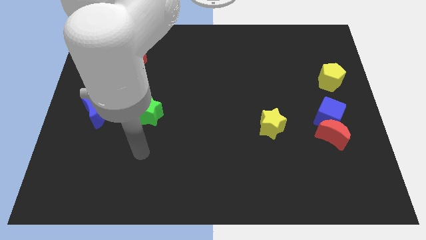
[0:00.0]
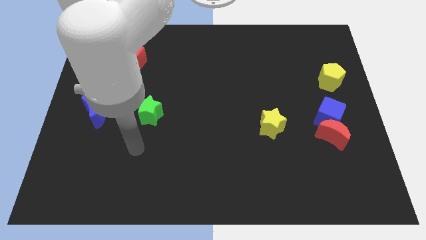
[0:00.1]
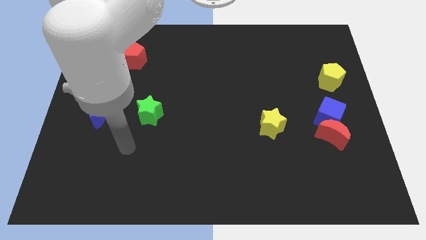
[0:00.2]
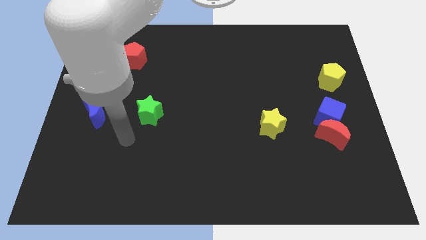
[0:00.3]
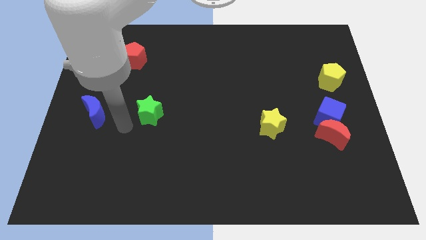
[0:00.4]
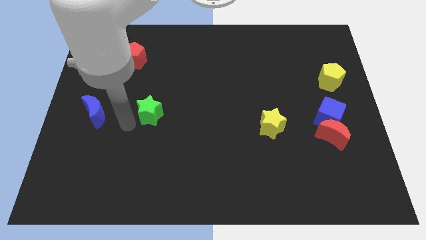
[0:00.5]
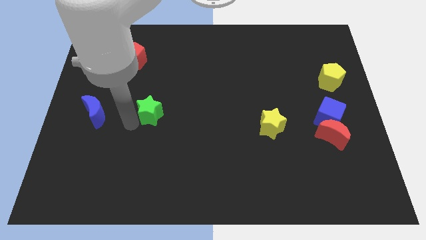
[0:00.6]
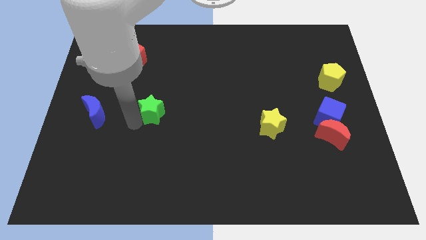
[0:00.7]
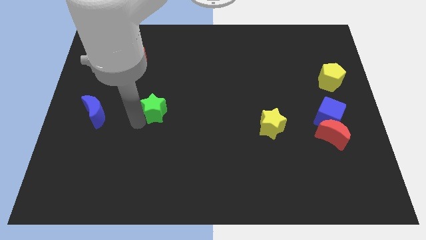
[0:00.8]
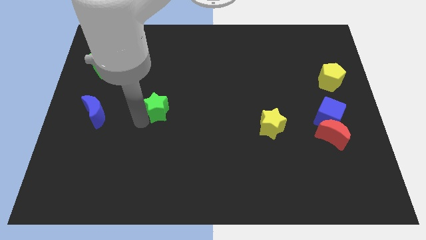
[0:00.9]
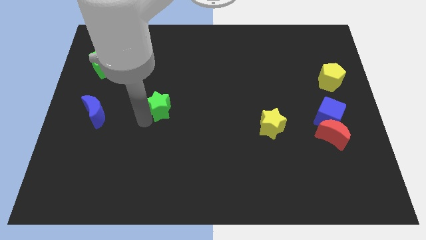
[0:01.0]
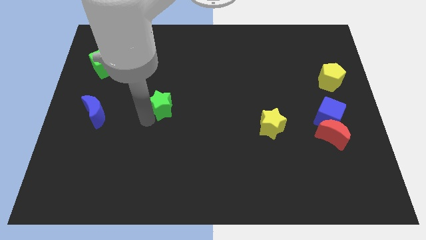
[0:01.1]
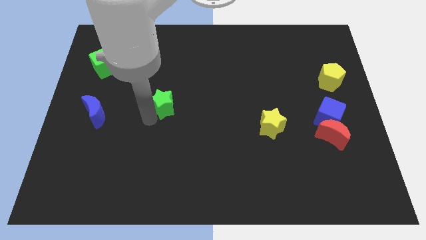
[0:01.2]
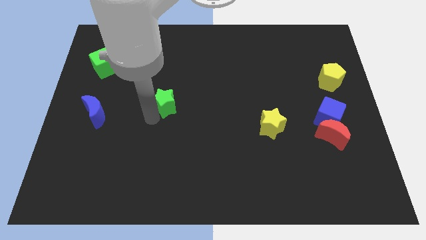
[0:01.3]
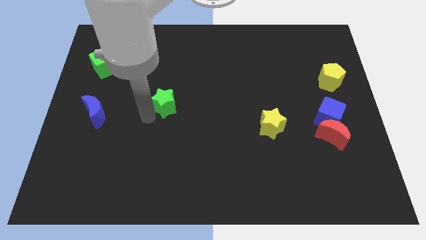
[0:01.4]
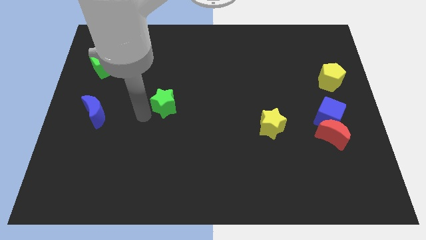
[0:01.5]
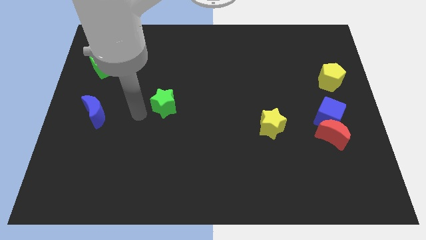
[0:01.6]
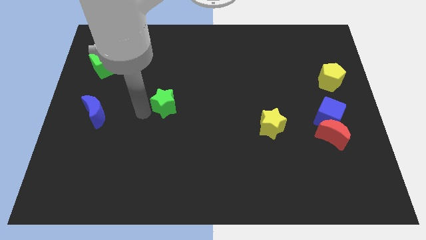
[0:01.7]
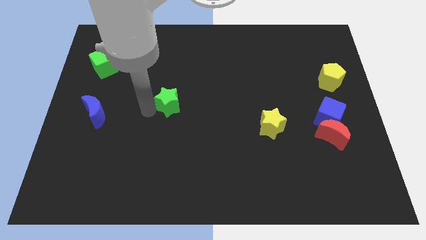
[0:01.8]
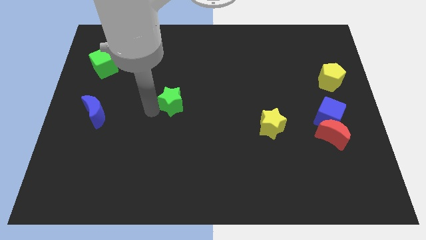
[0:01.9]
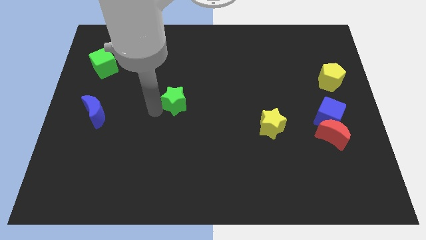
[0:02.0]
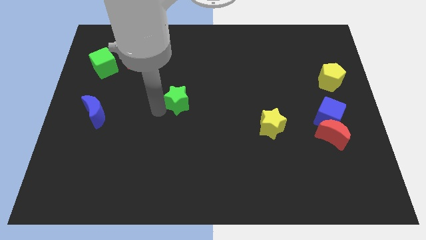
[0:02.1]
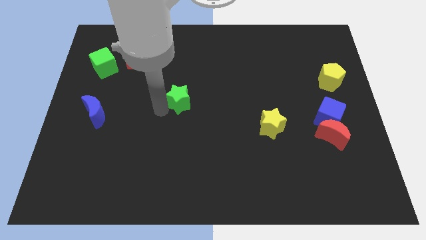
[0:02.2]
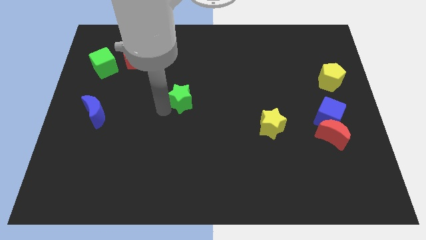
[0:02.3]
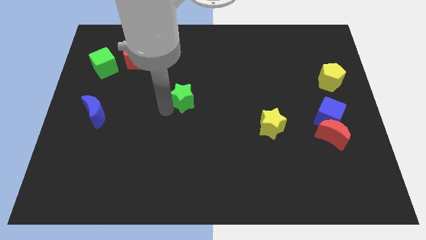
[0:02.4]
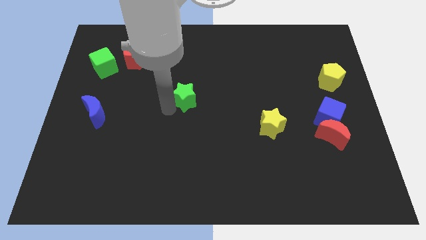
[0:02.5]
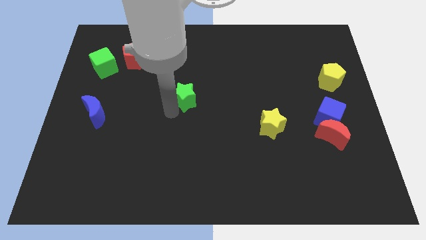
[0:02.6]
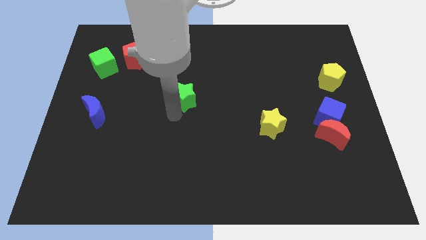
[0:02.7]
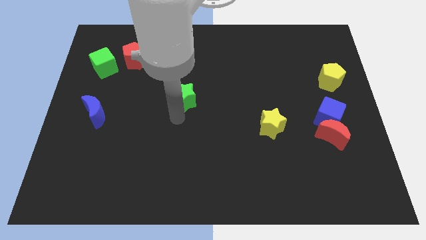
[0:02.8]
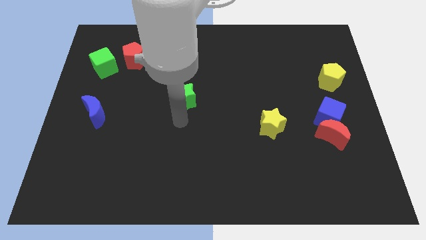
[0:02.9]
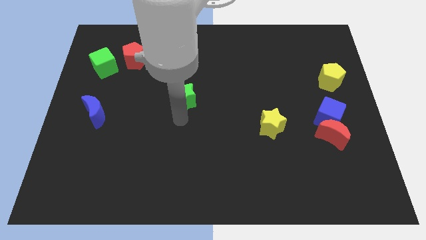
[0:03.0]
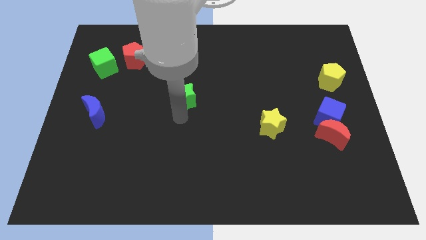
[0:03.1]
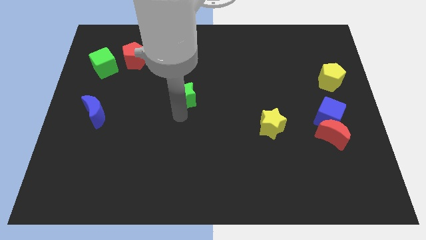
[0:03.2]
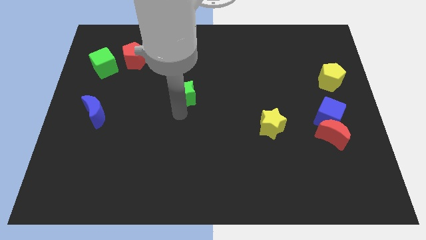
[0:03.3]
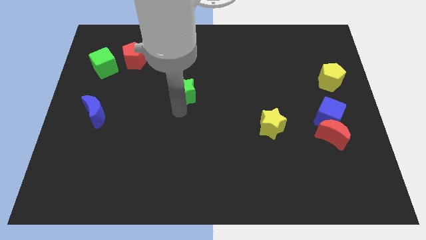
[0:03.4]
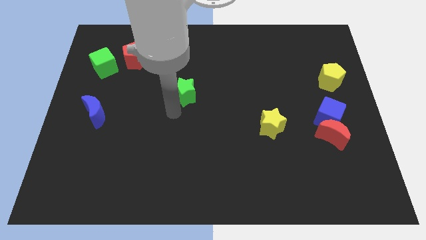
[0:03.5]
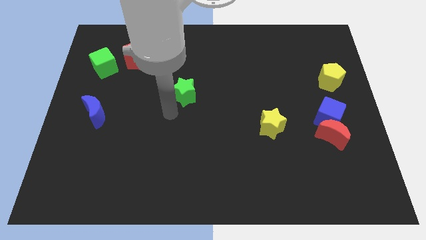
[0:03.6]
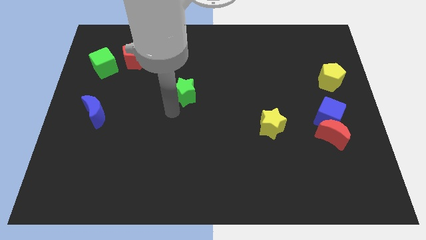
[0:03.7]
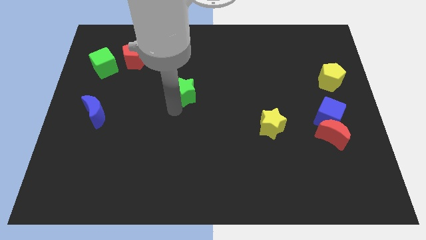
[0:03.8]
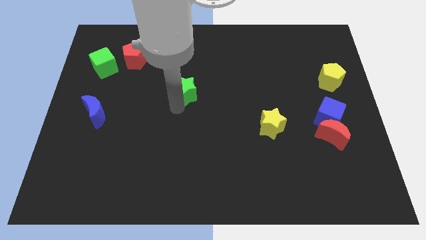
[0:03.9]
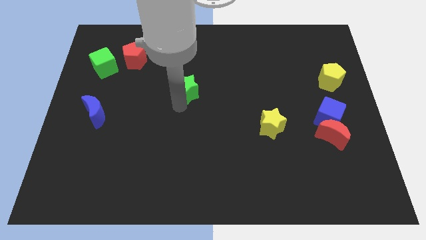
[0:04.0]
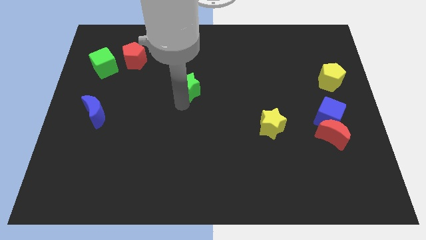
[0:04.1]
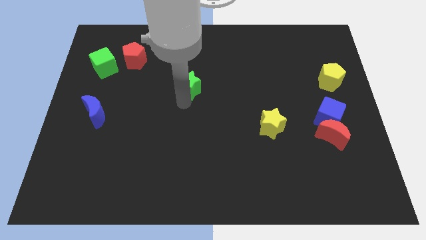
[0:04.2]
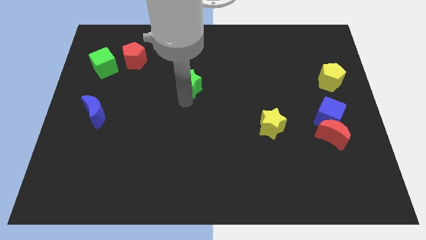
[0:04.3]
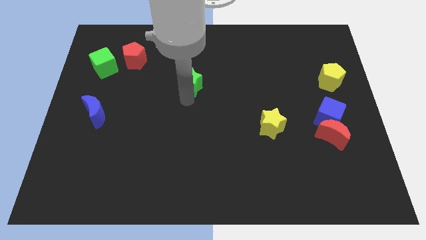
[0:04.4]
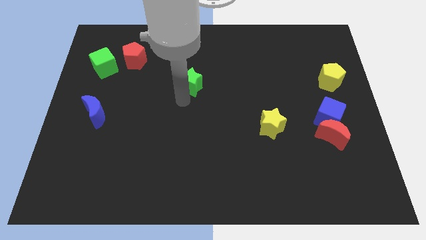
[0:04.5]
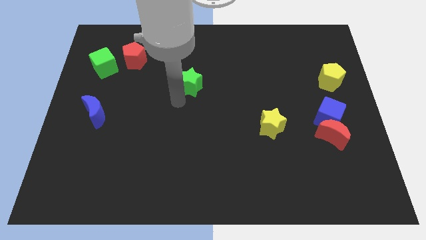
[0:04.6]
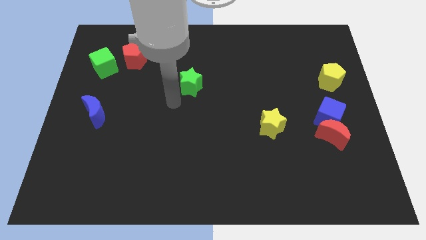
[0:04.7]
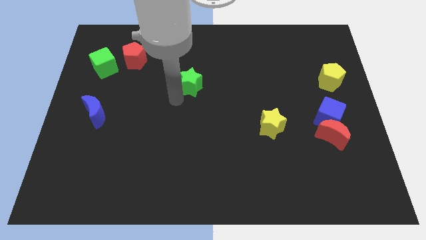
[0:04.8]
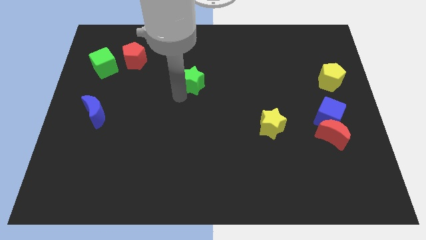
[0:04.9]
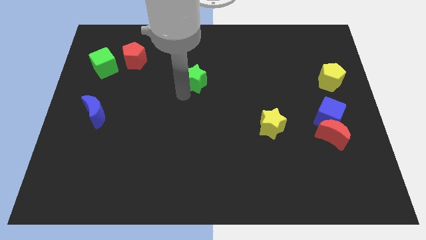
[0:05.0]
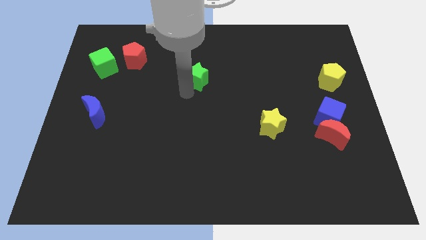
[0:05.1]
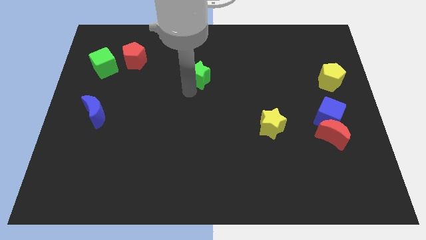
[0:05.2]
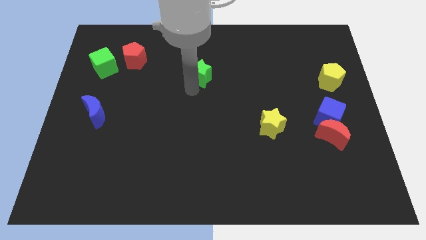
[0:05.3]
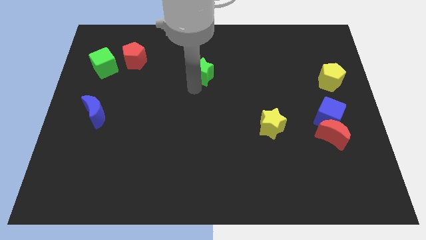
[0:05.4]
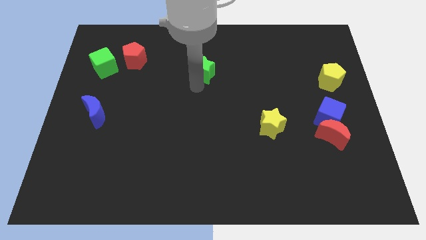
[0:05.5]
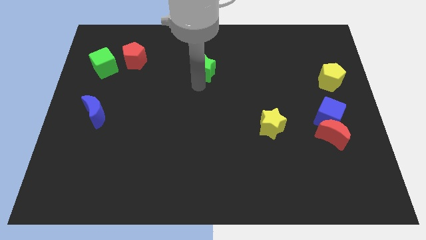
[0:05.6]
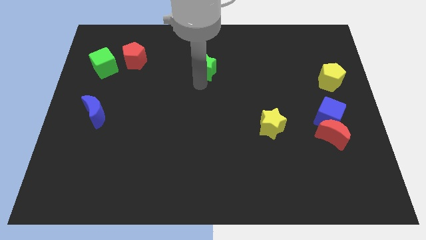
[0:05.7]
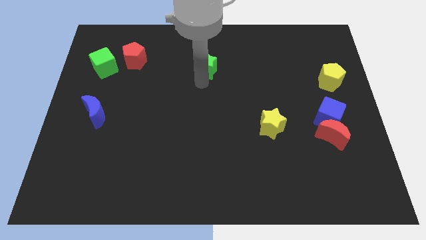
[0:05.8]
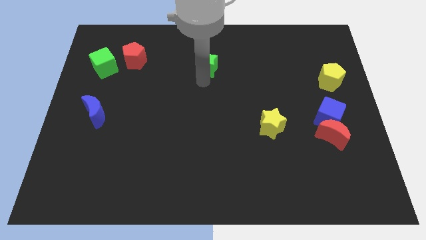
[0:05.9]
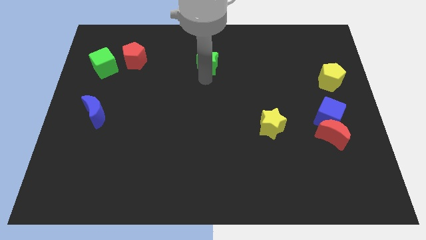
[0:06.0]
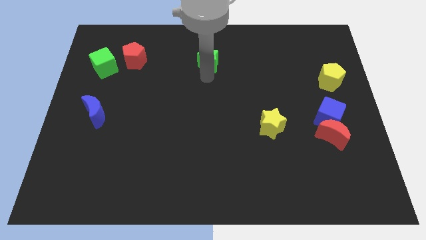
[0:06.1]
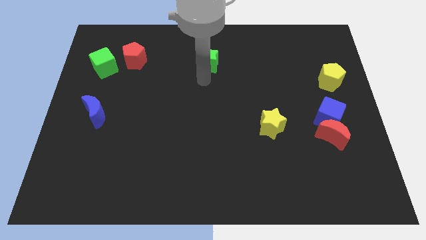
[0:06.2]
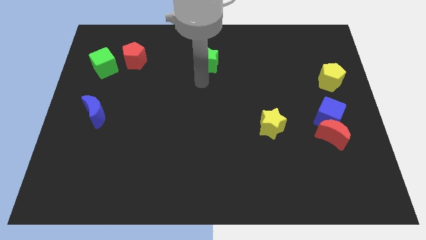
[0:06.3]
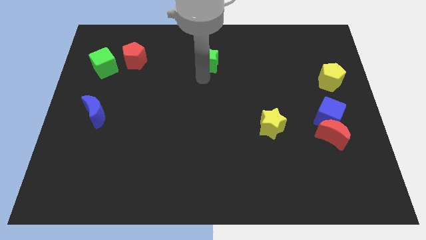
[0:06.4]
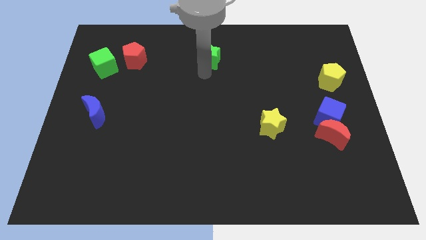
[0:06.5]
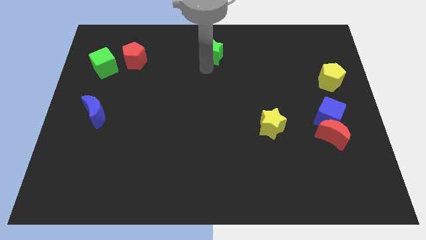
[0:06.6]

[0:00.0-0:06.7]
slide the green star to the towards your base
